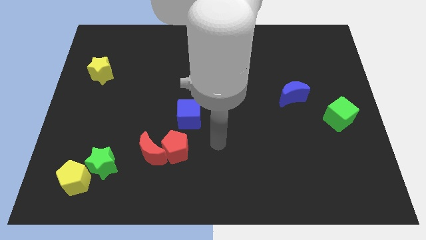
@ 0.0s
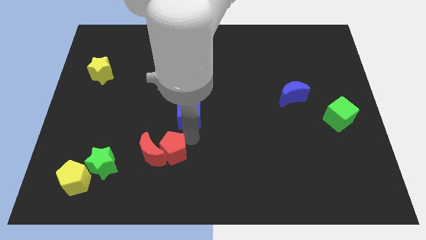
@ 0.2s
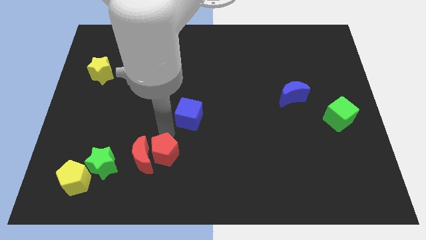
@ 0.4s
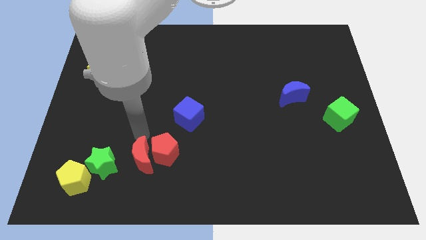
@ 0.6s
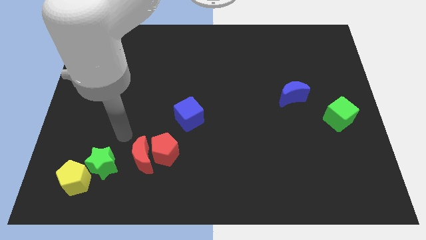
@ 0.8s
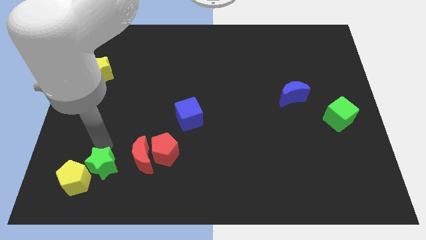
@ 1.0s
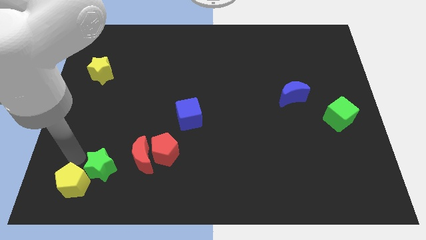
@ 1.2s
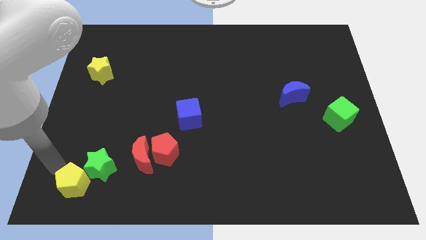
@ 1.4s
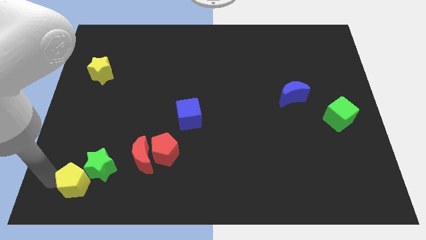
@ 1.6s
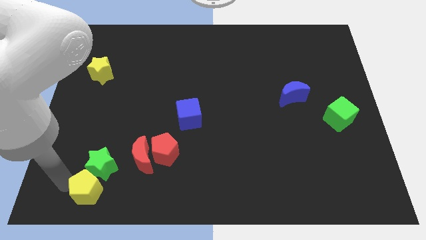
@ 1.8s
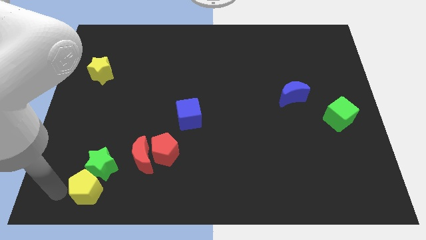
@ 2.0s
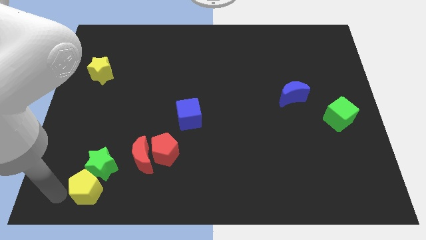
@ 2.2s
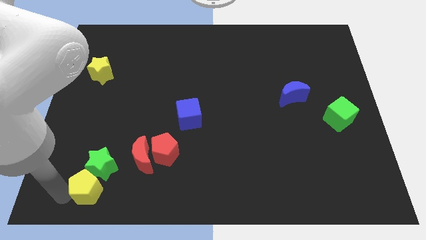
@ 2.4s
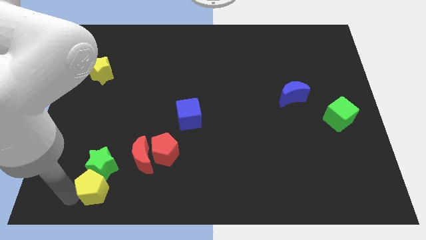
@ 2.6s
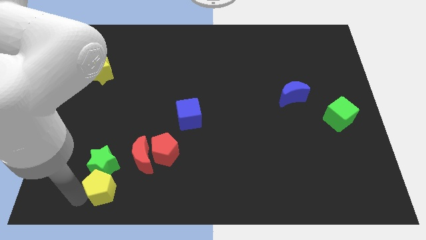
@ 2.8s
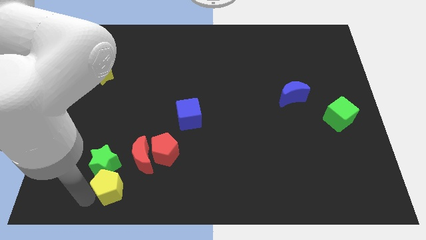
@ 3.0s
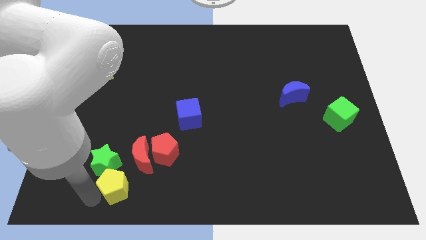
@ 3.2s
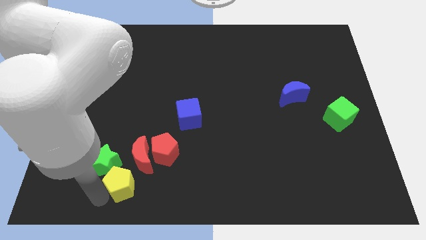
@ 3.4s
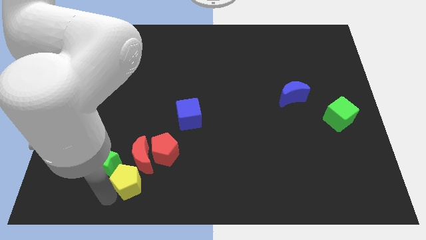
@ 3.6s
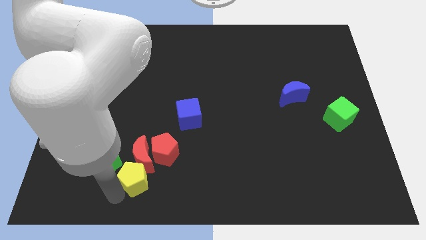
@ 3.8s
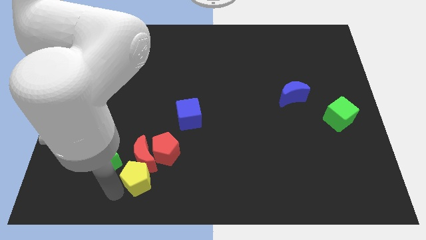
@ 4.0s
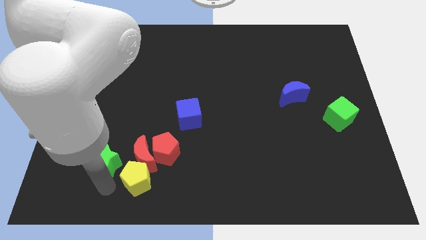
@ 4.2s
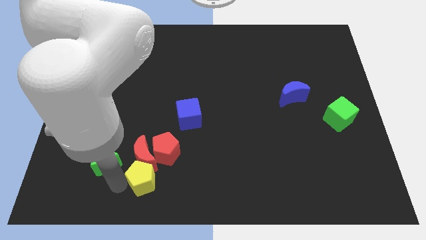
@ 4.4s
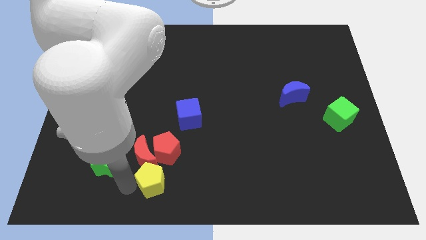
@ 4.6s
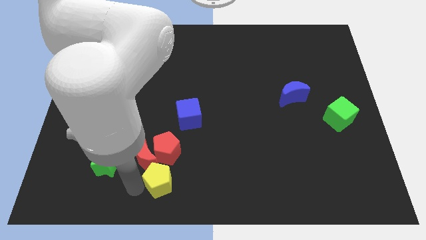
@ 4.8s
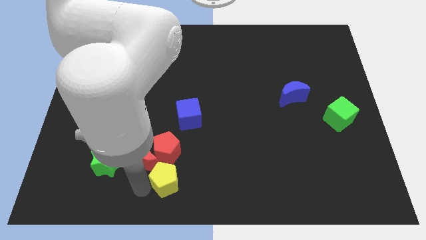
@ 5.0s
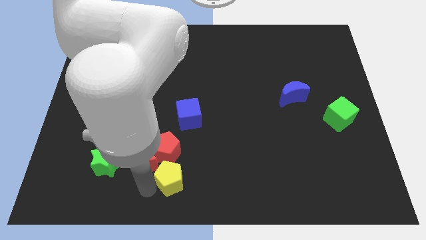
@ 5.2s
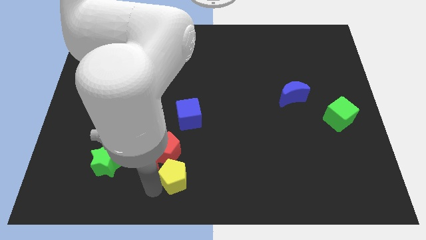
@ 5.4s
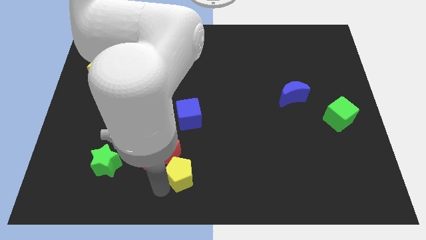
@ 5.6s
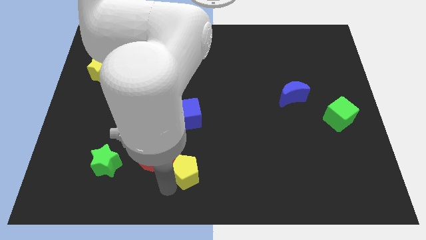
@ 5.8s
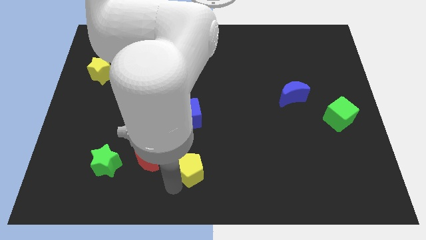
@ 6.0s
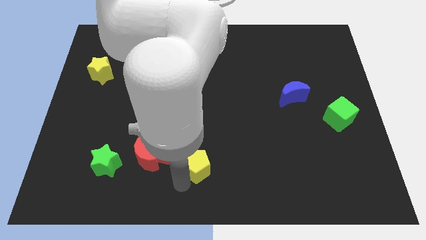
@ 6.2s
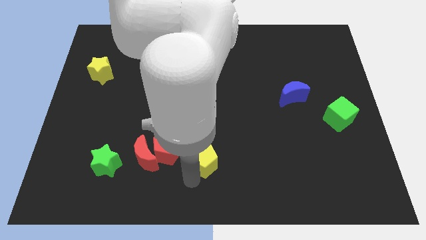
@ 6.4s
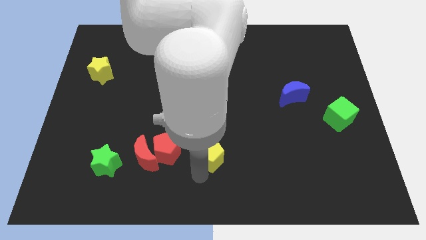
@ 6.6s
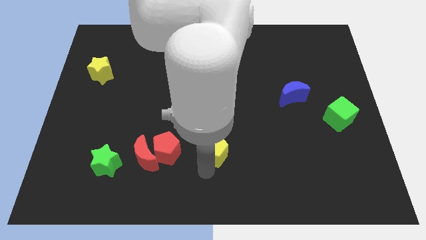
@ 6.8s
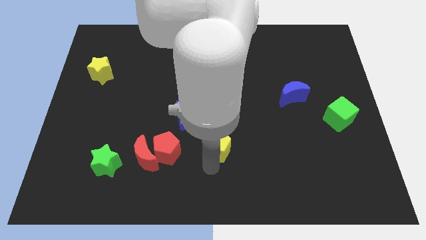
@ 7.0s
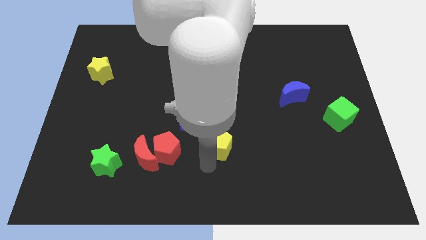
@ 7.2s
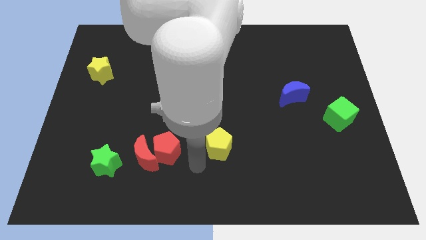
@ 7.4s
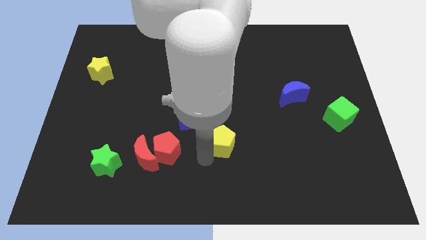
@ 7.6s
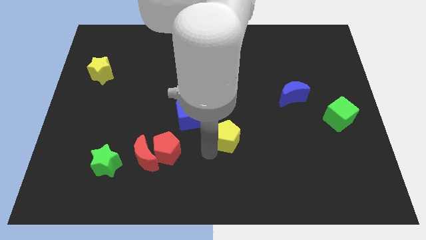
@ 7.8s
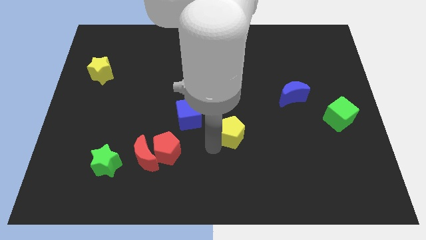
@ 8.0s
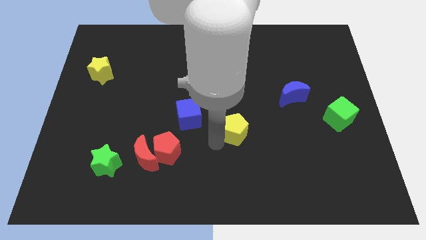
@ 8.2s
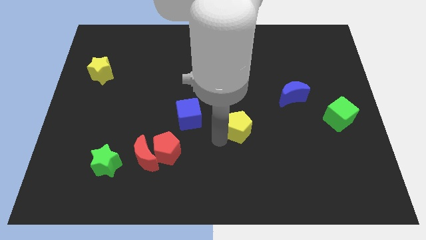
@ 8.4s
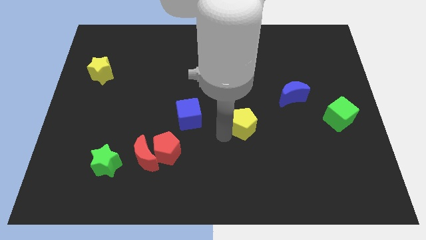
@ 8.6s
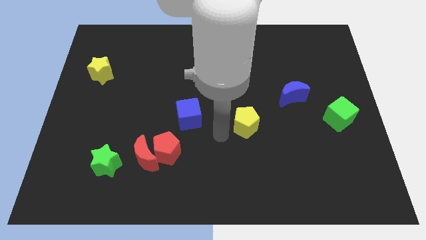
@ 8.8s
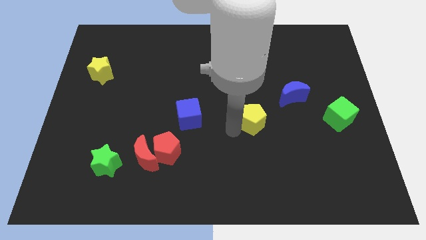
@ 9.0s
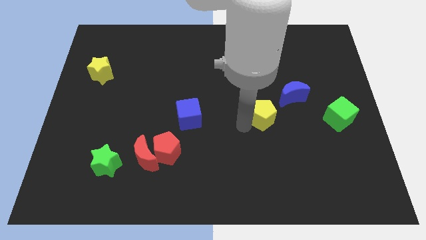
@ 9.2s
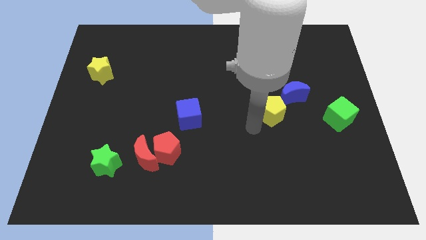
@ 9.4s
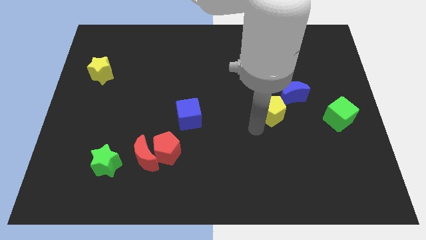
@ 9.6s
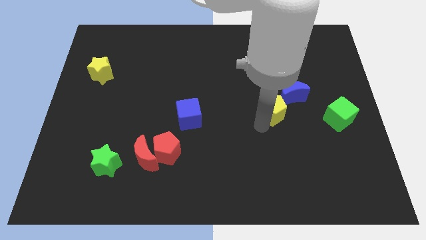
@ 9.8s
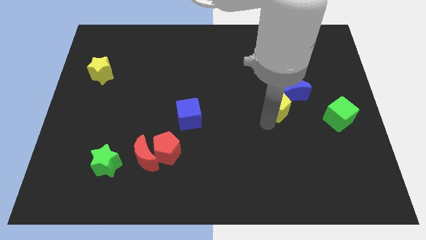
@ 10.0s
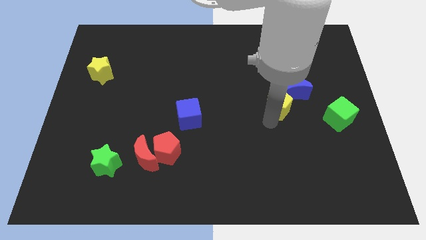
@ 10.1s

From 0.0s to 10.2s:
slide the yellow pentagon close to the blue moon

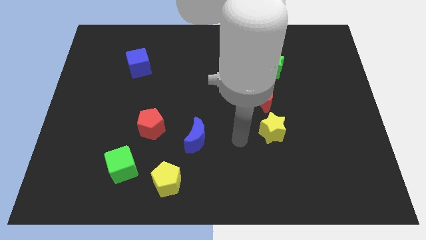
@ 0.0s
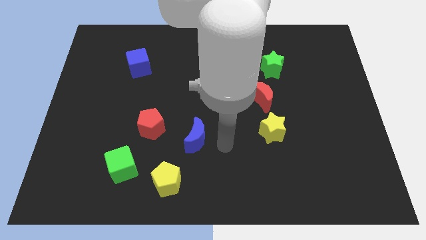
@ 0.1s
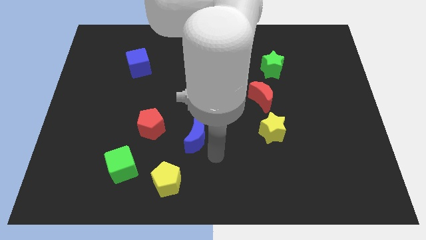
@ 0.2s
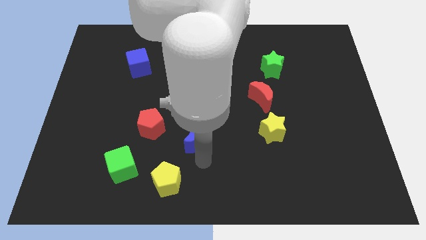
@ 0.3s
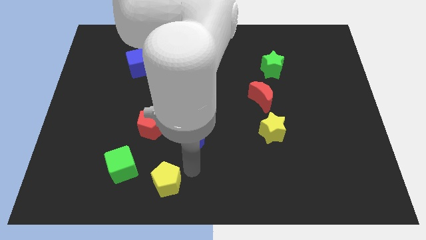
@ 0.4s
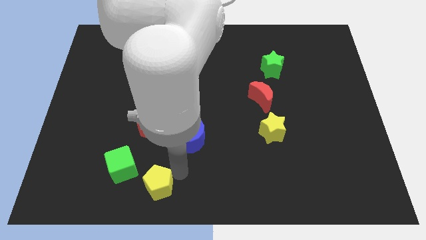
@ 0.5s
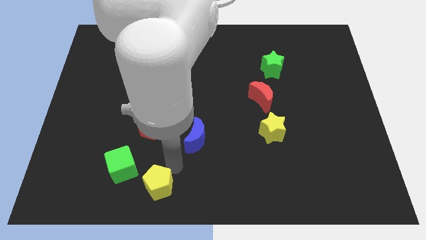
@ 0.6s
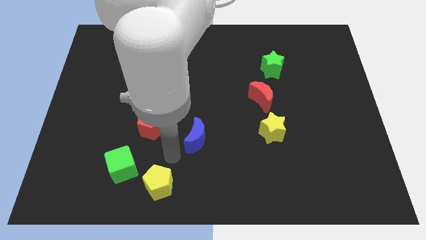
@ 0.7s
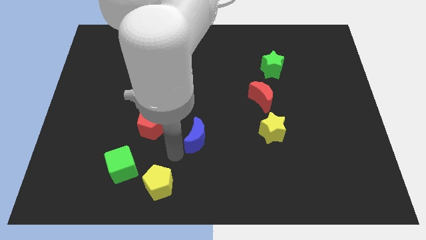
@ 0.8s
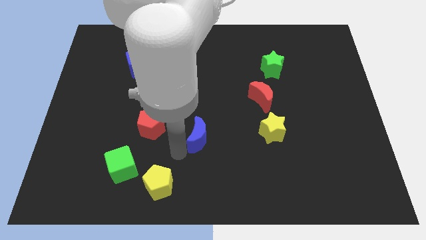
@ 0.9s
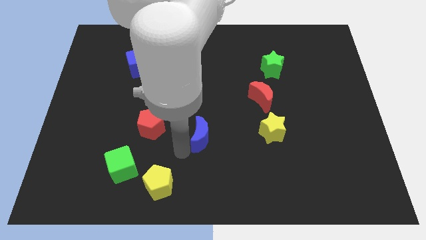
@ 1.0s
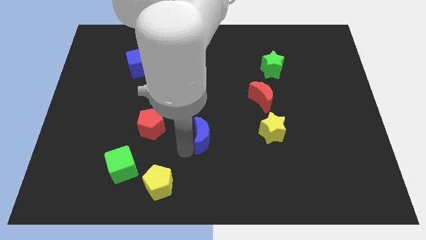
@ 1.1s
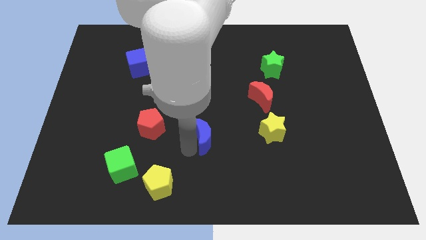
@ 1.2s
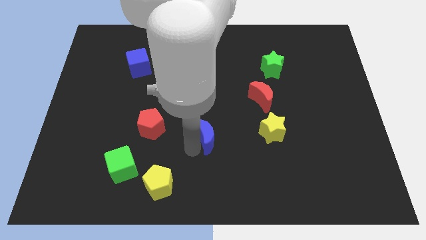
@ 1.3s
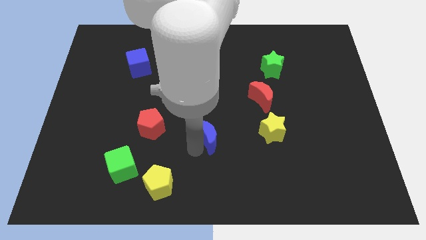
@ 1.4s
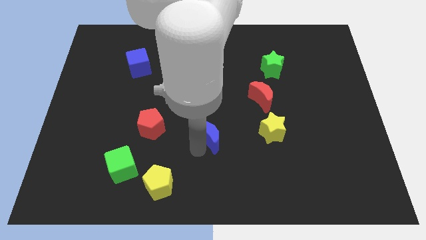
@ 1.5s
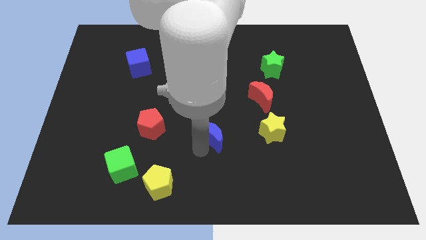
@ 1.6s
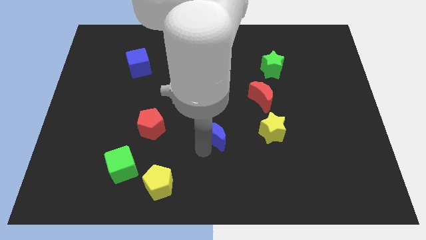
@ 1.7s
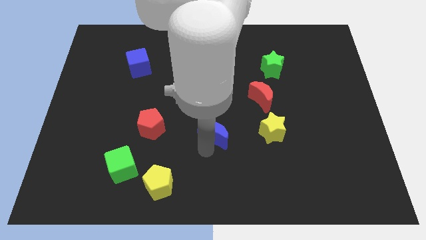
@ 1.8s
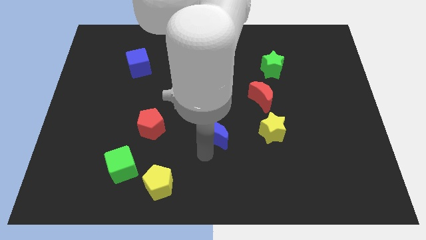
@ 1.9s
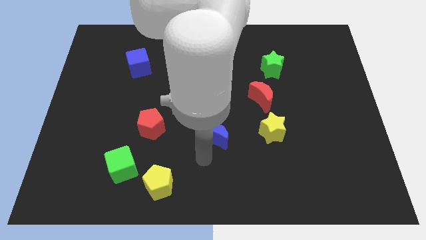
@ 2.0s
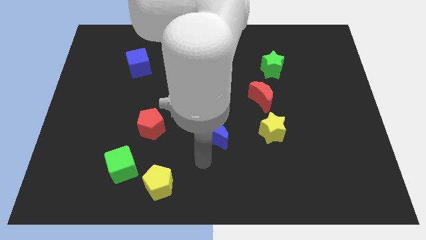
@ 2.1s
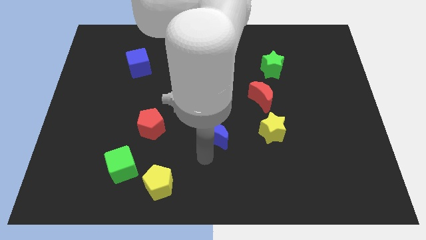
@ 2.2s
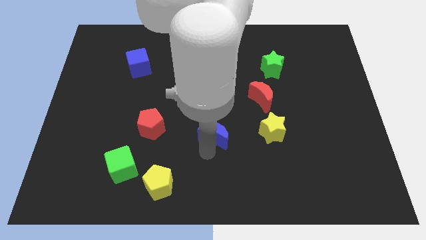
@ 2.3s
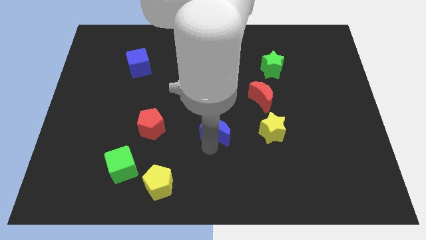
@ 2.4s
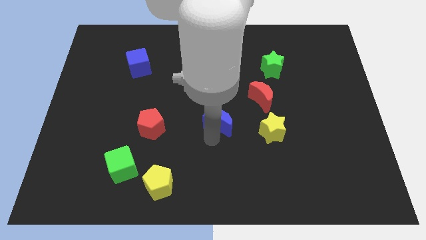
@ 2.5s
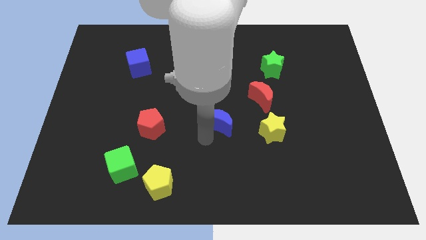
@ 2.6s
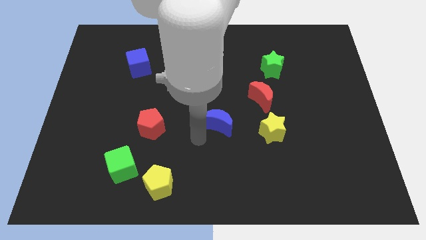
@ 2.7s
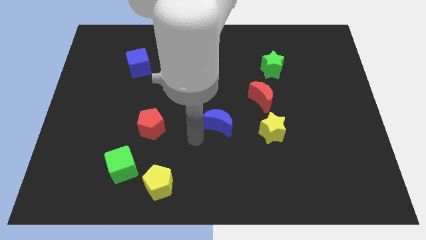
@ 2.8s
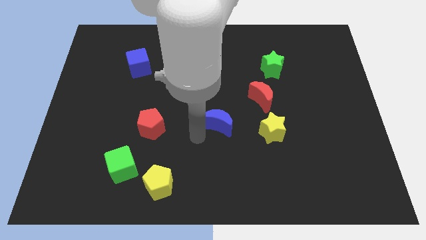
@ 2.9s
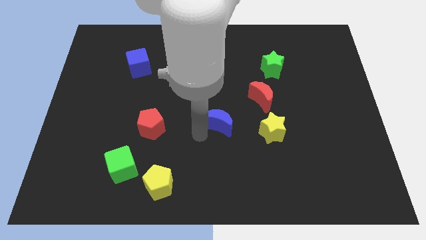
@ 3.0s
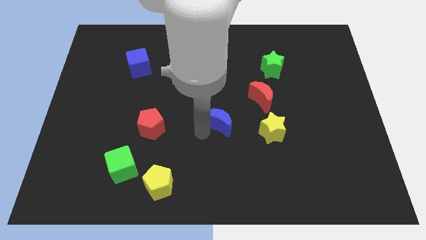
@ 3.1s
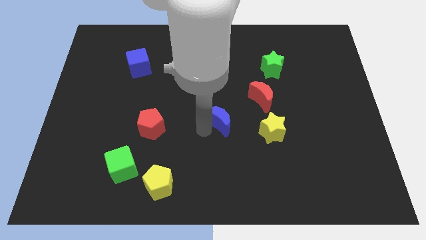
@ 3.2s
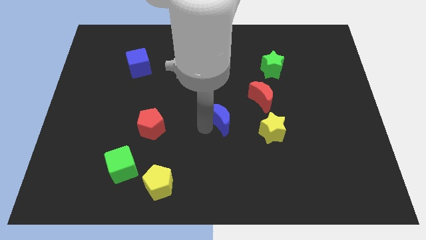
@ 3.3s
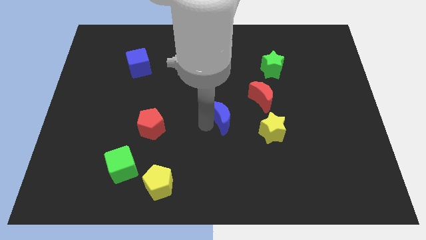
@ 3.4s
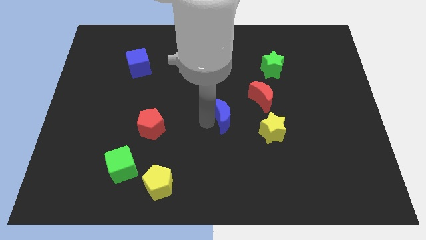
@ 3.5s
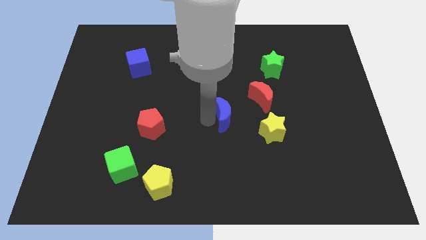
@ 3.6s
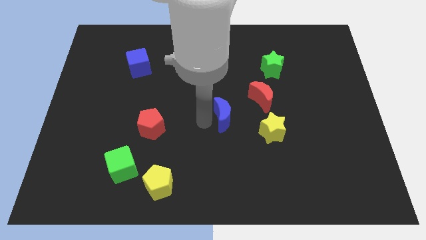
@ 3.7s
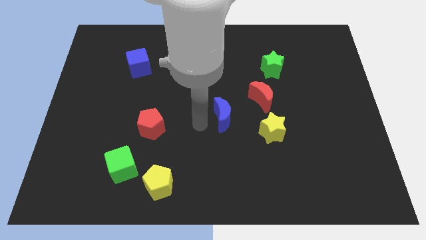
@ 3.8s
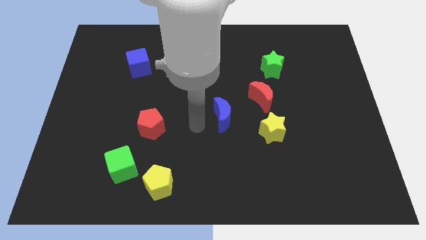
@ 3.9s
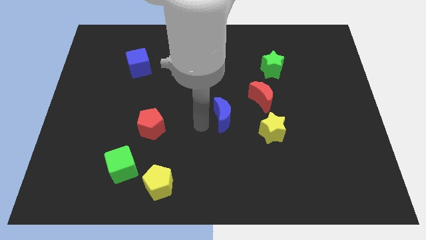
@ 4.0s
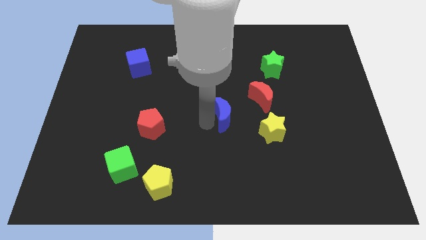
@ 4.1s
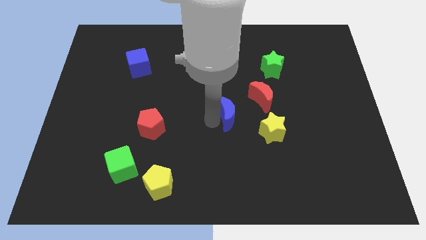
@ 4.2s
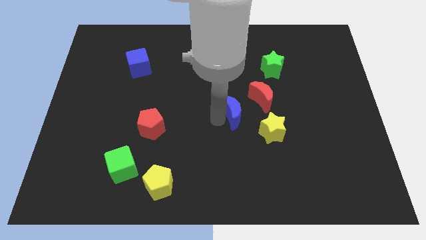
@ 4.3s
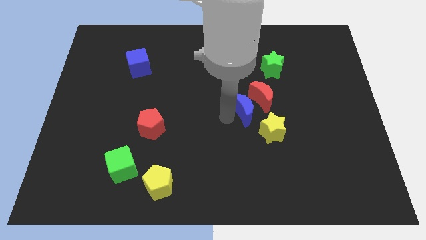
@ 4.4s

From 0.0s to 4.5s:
move the blue moon close to the red moon
